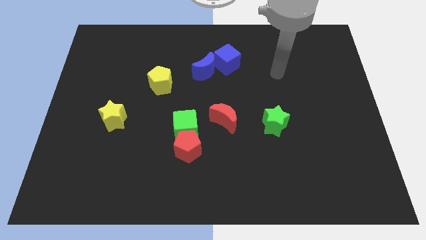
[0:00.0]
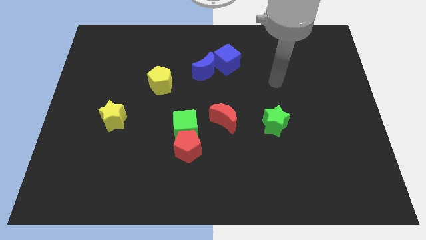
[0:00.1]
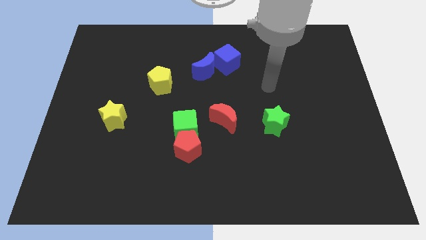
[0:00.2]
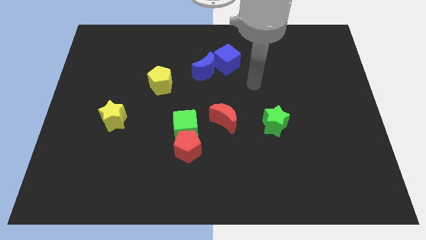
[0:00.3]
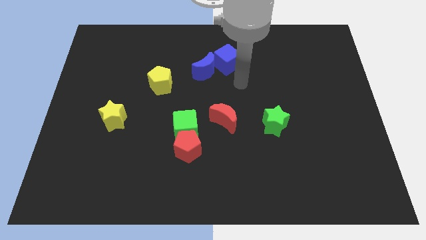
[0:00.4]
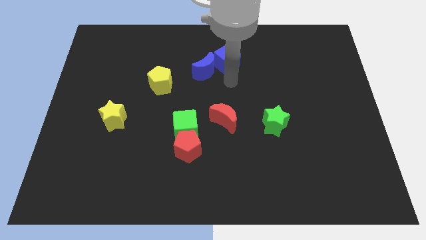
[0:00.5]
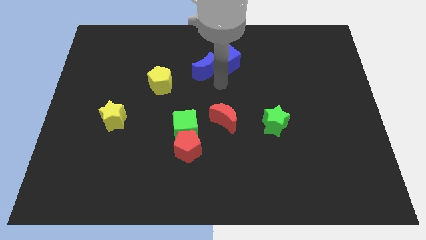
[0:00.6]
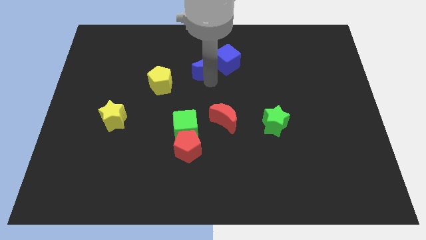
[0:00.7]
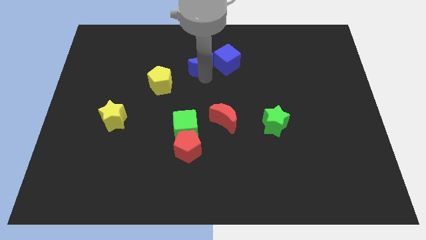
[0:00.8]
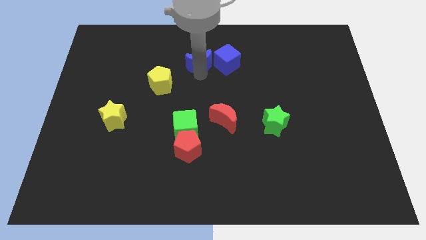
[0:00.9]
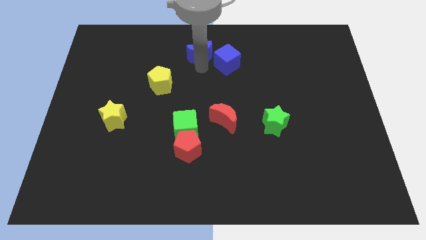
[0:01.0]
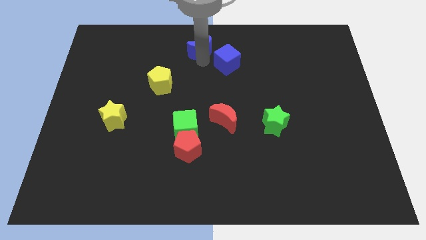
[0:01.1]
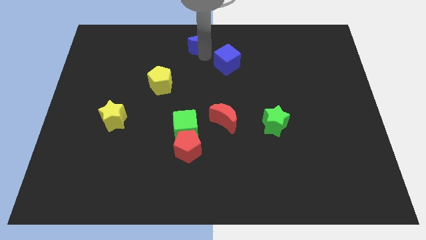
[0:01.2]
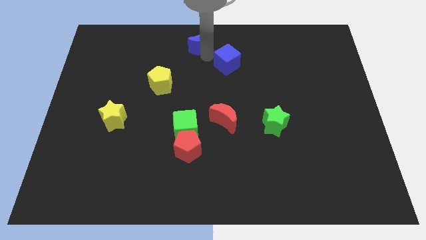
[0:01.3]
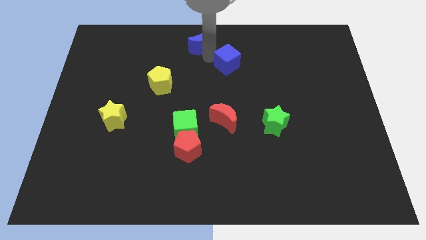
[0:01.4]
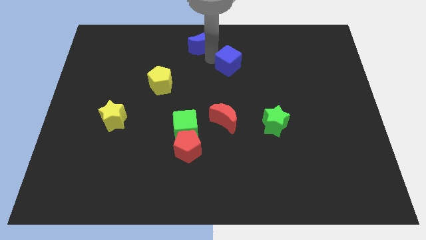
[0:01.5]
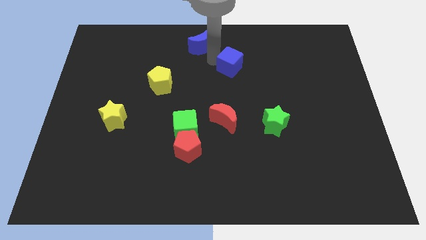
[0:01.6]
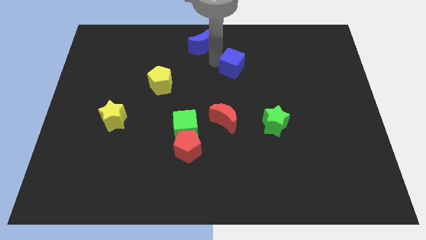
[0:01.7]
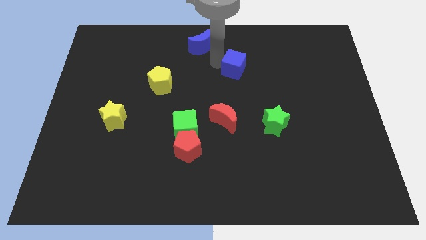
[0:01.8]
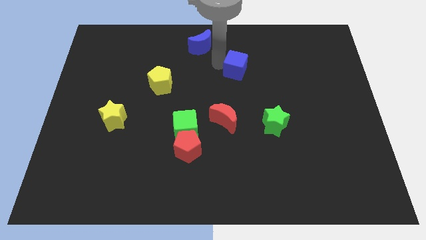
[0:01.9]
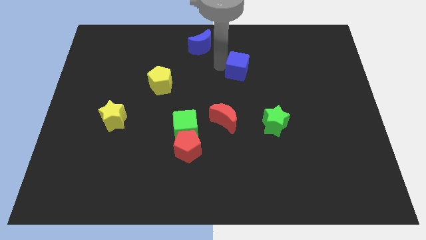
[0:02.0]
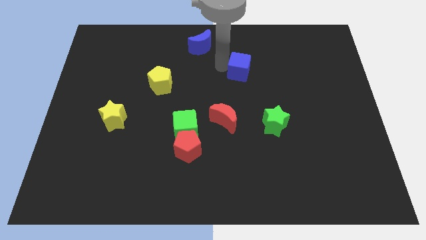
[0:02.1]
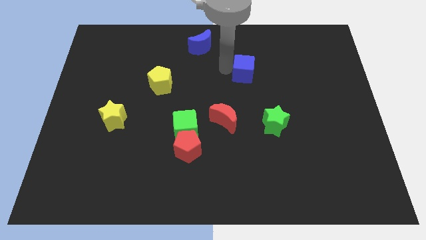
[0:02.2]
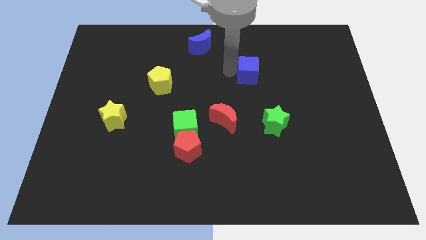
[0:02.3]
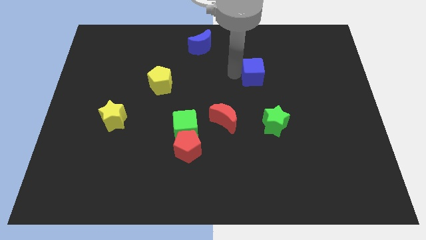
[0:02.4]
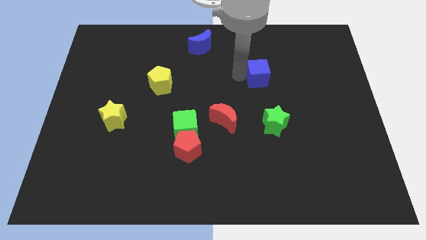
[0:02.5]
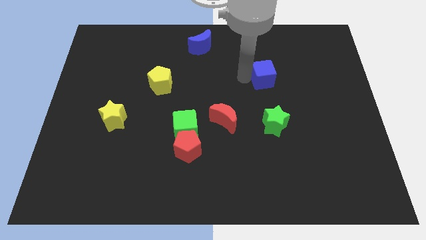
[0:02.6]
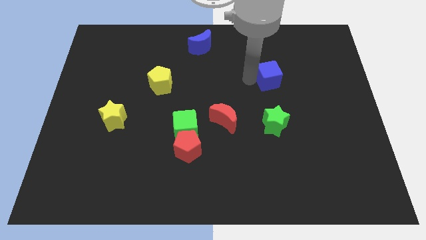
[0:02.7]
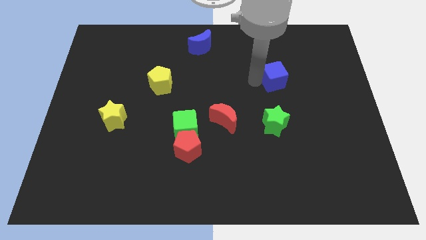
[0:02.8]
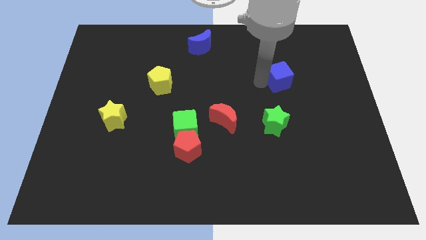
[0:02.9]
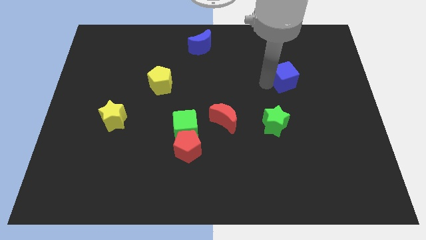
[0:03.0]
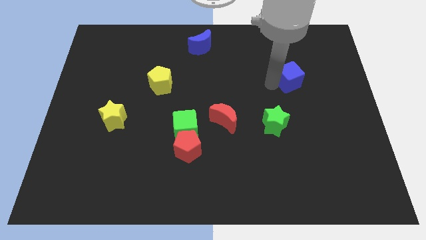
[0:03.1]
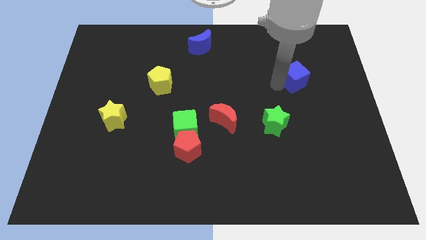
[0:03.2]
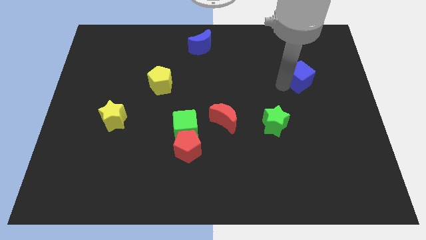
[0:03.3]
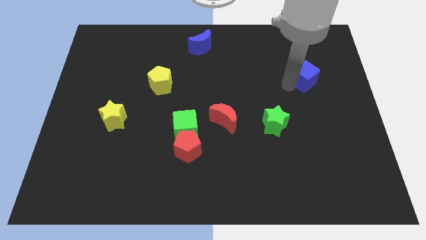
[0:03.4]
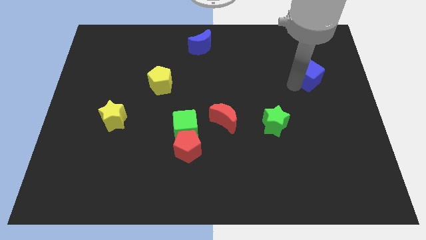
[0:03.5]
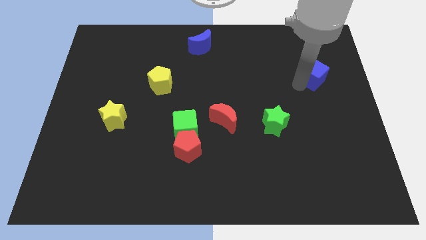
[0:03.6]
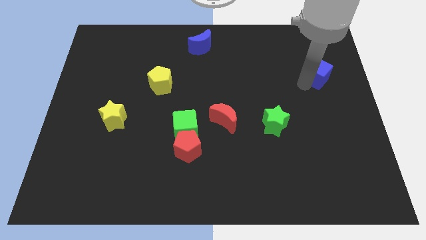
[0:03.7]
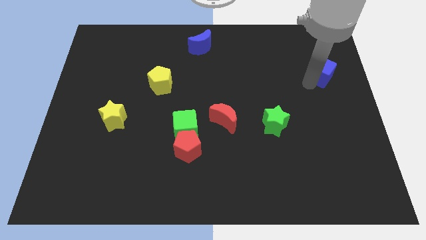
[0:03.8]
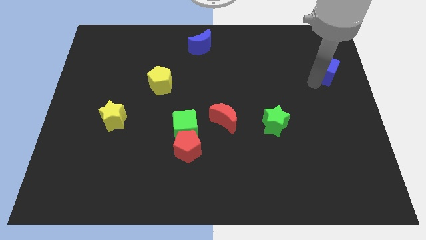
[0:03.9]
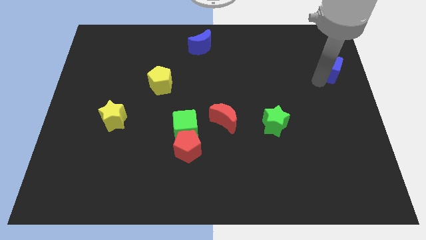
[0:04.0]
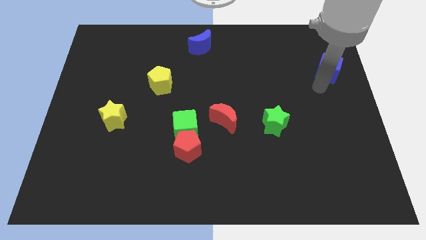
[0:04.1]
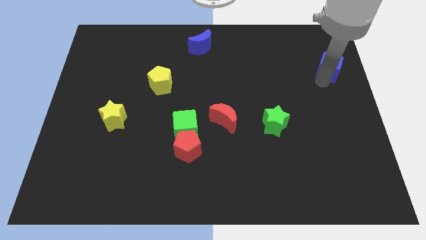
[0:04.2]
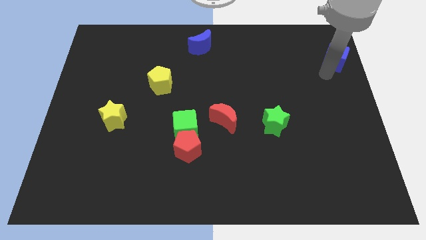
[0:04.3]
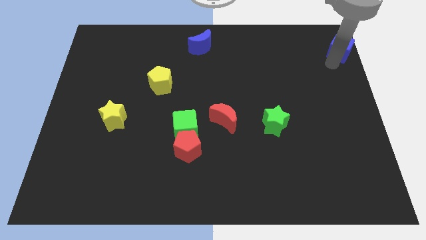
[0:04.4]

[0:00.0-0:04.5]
put the blue cube to the upper right corner

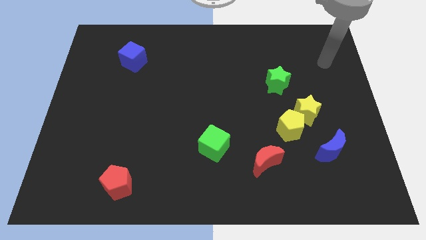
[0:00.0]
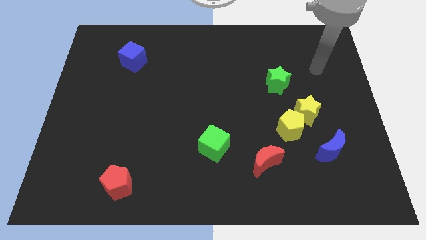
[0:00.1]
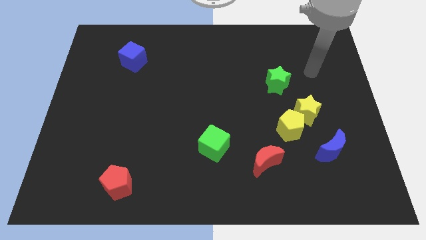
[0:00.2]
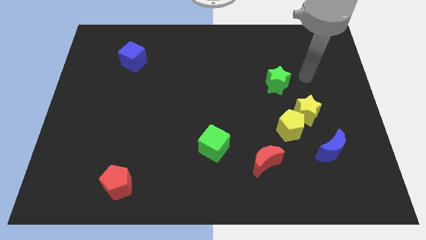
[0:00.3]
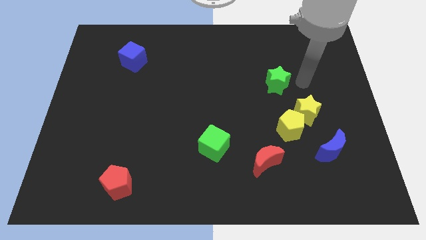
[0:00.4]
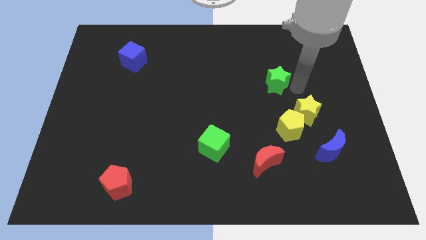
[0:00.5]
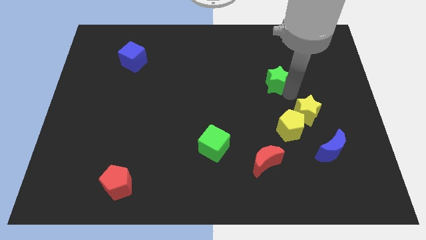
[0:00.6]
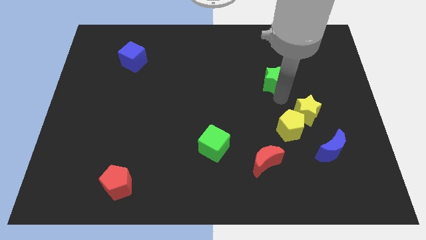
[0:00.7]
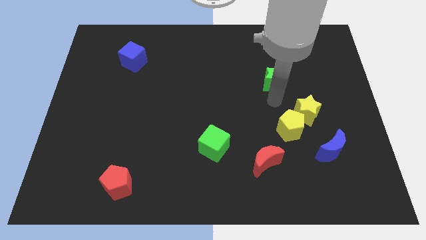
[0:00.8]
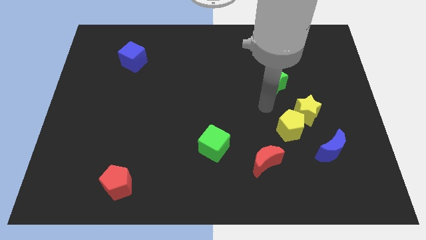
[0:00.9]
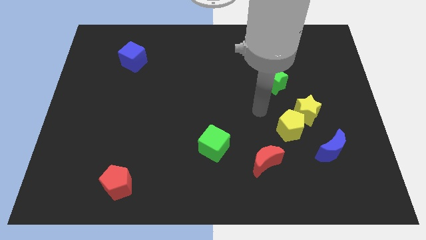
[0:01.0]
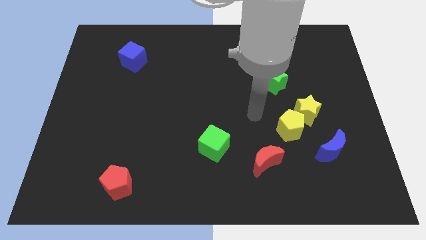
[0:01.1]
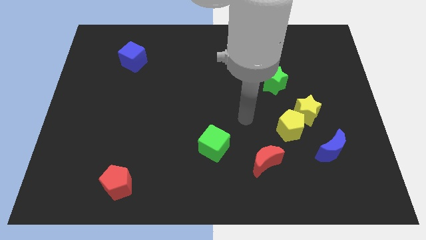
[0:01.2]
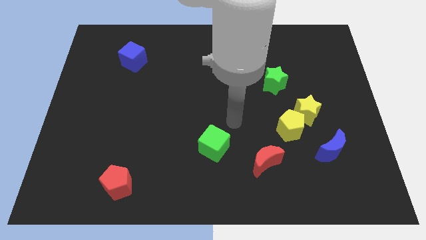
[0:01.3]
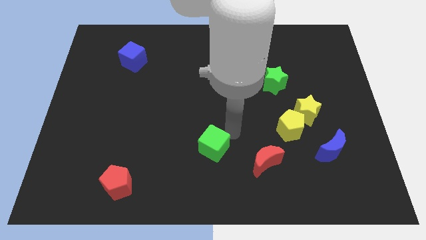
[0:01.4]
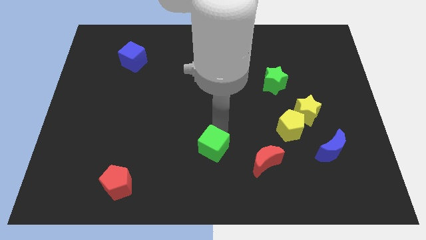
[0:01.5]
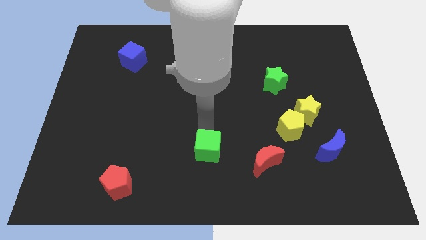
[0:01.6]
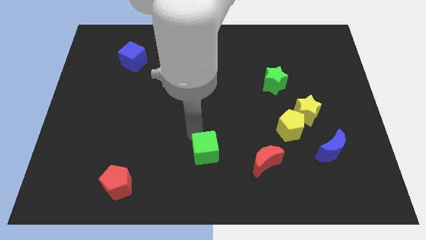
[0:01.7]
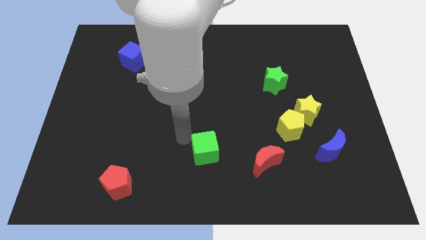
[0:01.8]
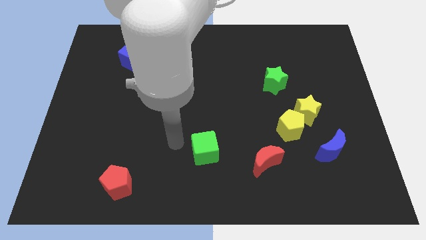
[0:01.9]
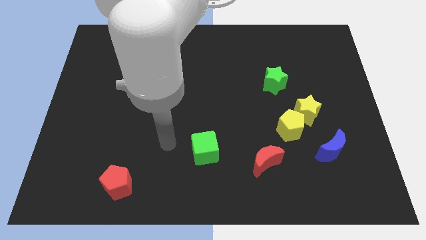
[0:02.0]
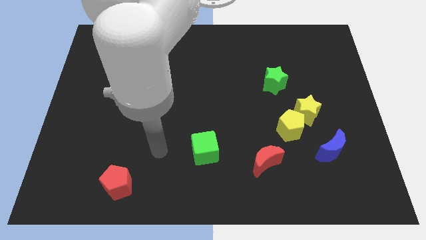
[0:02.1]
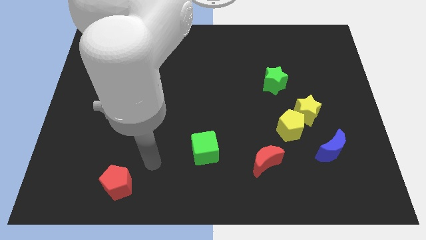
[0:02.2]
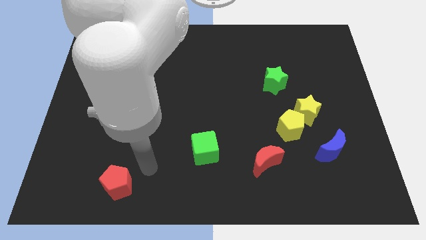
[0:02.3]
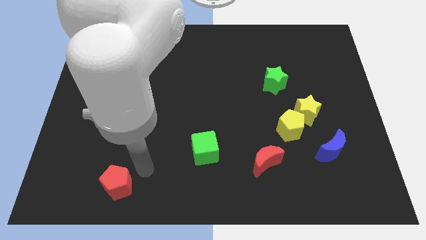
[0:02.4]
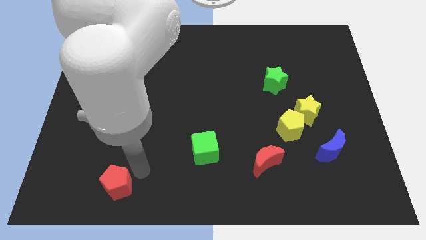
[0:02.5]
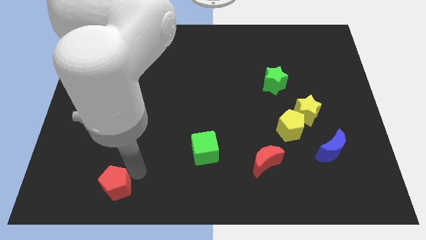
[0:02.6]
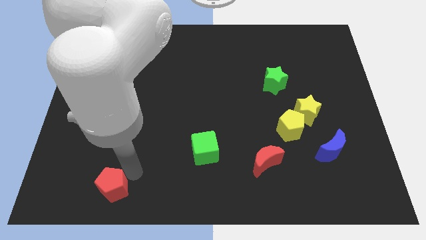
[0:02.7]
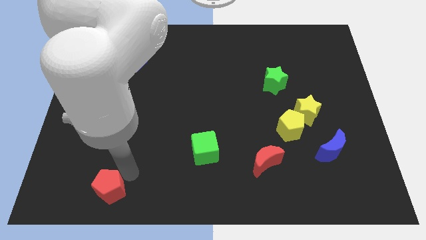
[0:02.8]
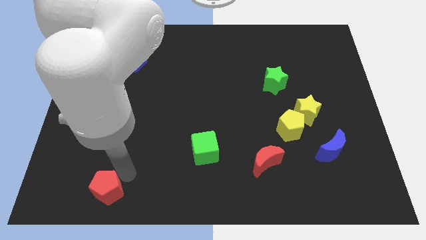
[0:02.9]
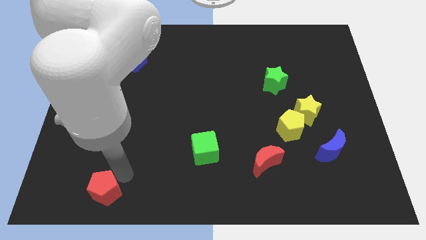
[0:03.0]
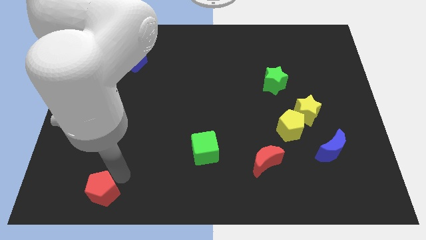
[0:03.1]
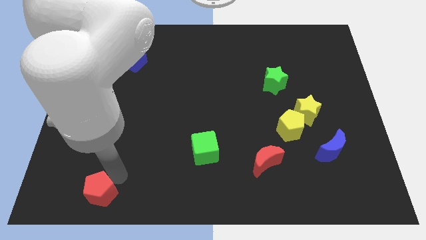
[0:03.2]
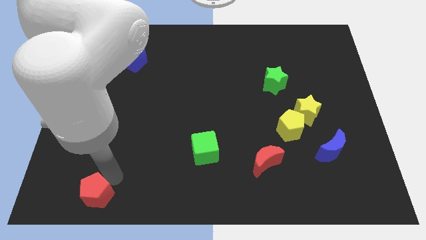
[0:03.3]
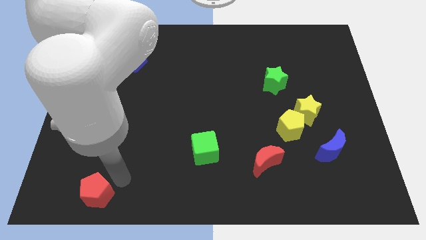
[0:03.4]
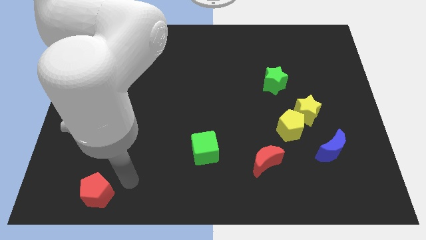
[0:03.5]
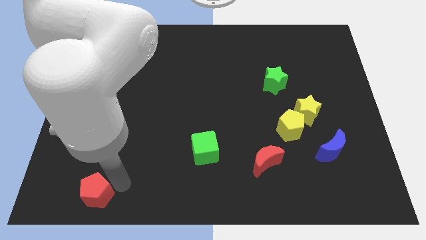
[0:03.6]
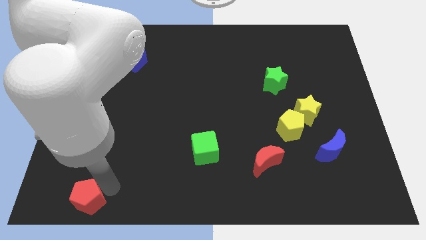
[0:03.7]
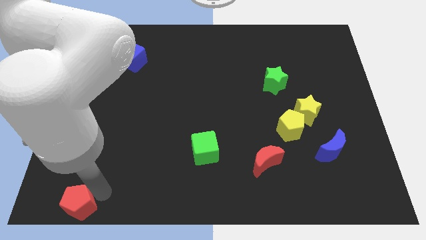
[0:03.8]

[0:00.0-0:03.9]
move the red pentagon to the bottom left of the board
